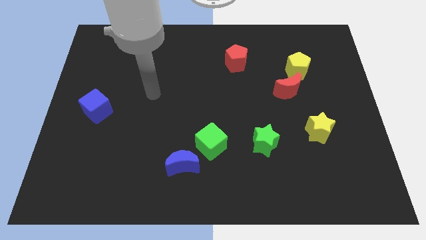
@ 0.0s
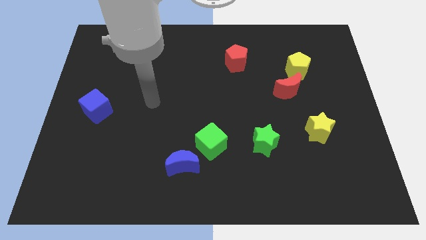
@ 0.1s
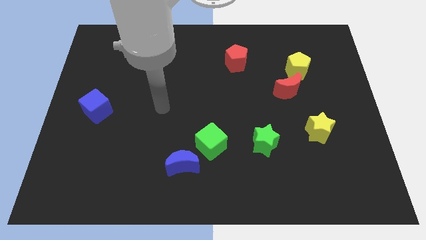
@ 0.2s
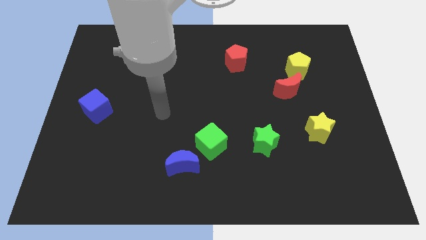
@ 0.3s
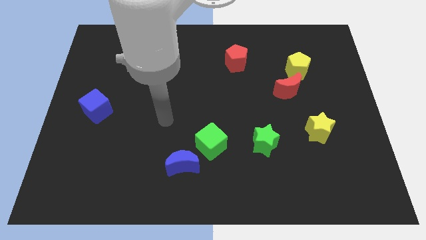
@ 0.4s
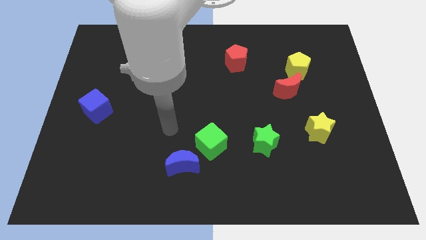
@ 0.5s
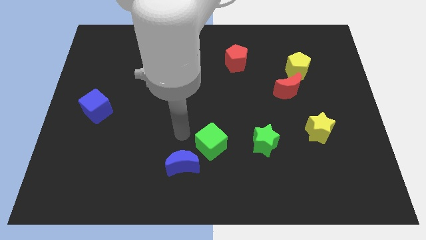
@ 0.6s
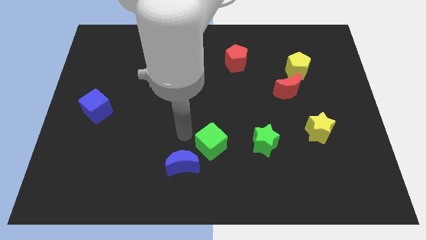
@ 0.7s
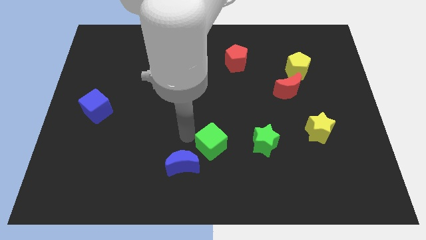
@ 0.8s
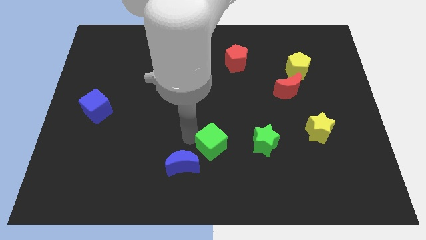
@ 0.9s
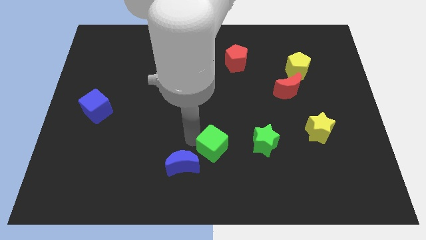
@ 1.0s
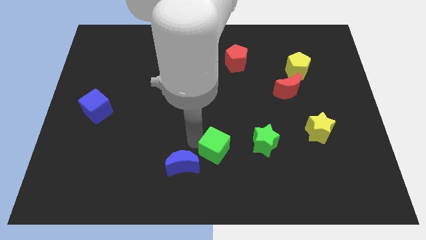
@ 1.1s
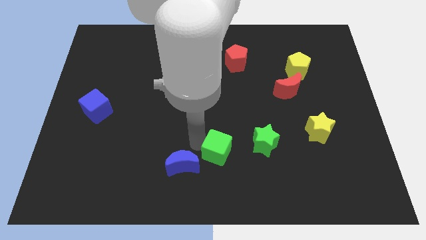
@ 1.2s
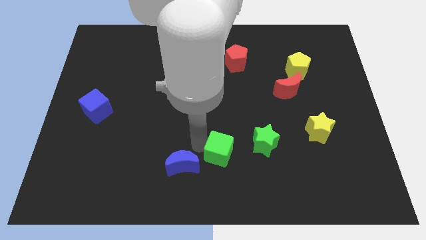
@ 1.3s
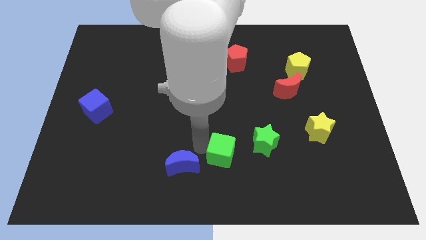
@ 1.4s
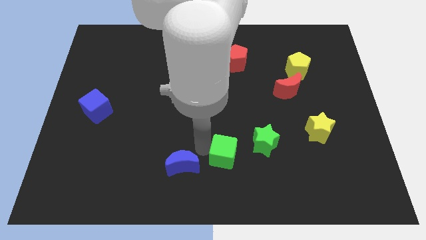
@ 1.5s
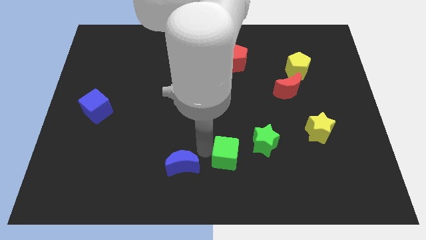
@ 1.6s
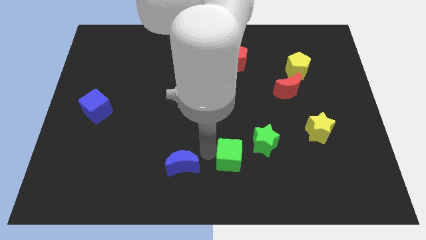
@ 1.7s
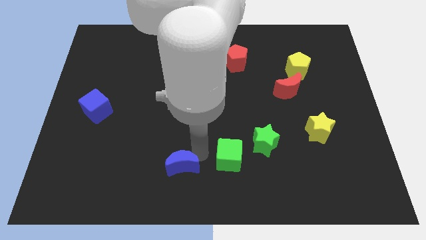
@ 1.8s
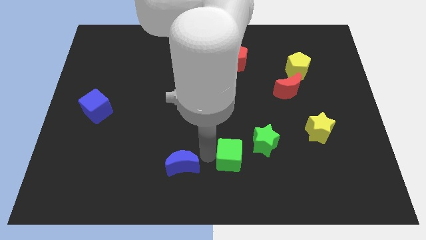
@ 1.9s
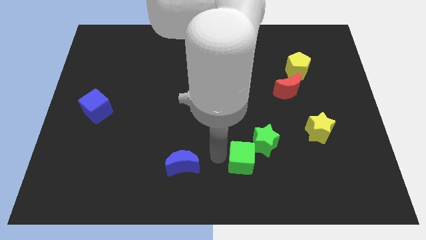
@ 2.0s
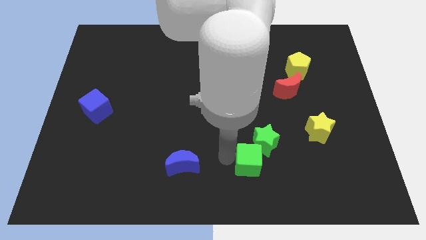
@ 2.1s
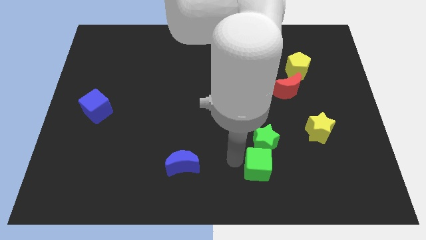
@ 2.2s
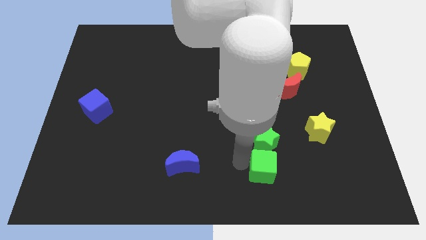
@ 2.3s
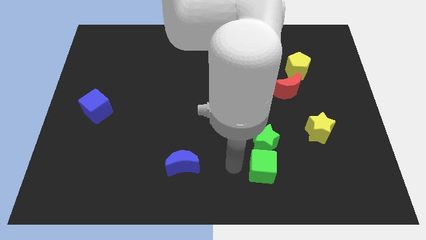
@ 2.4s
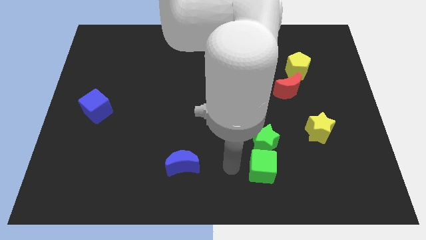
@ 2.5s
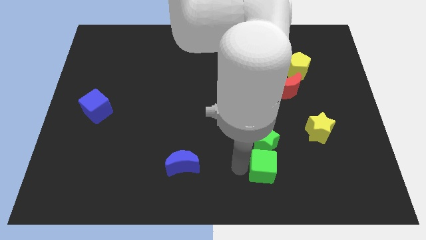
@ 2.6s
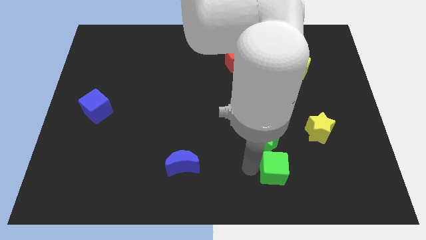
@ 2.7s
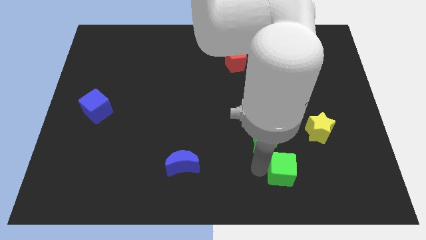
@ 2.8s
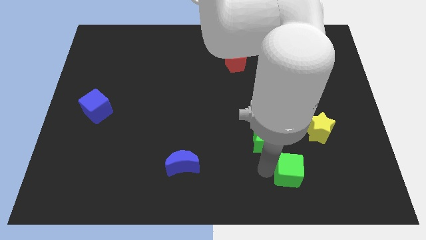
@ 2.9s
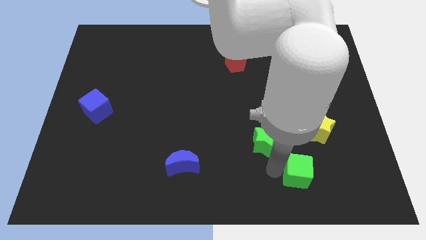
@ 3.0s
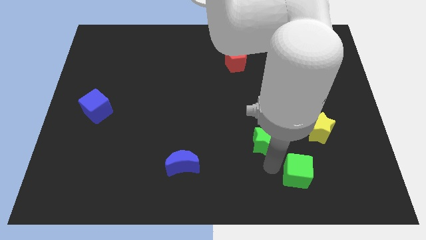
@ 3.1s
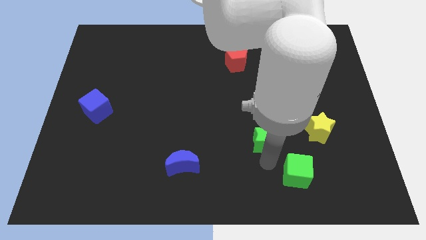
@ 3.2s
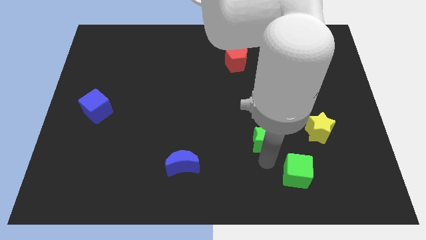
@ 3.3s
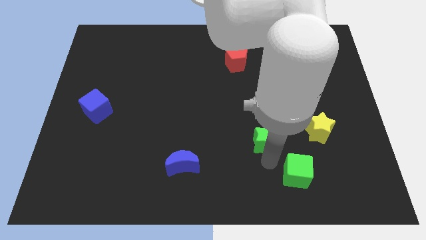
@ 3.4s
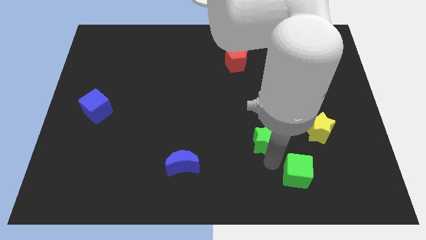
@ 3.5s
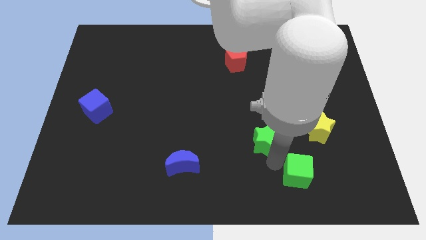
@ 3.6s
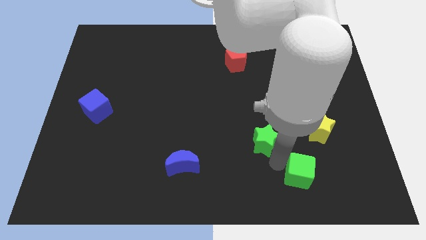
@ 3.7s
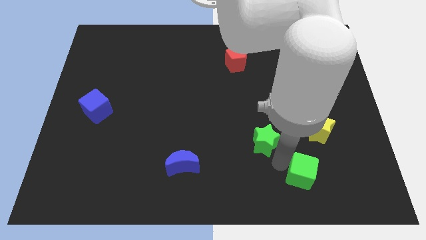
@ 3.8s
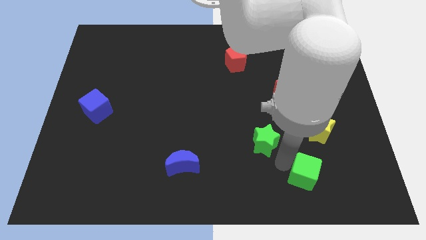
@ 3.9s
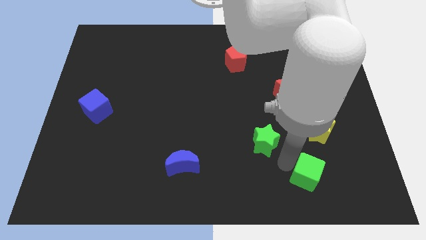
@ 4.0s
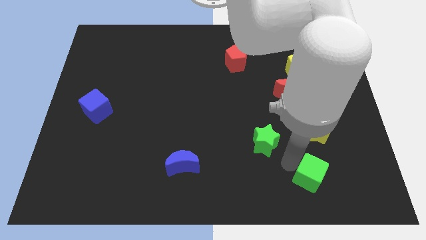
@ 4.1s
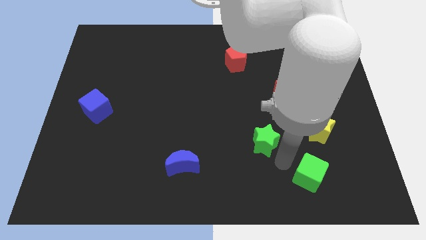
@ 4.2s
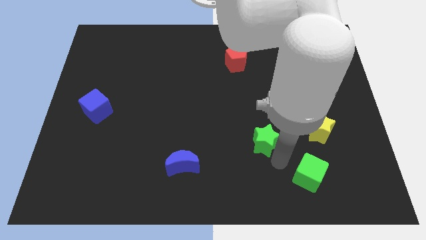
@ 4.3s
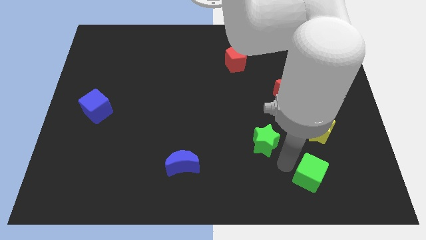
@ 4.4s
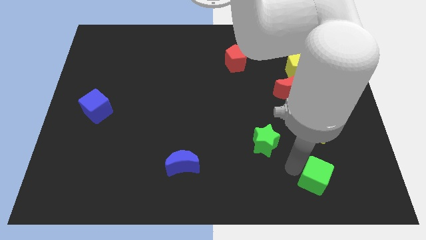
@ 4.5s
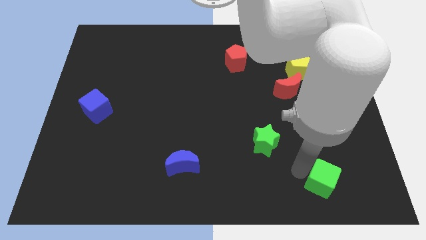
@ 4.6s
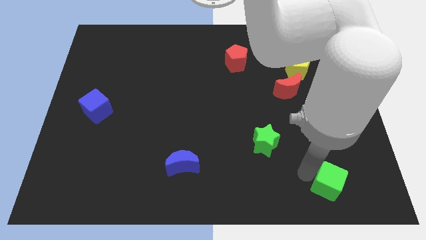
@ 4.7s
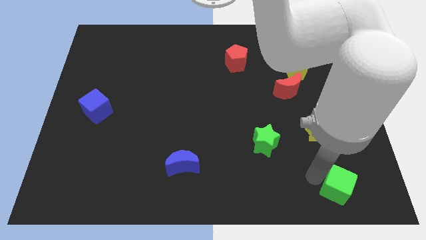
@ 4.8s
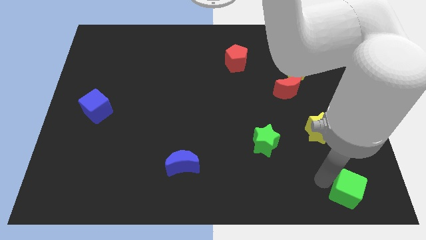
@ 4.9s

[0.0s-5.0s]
slide the green cube to the bottom right
